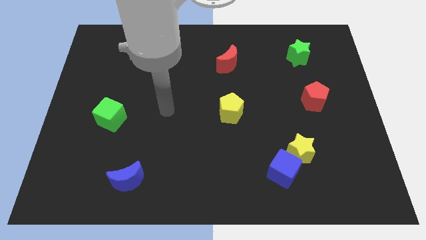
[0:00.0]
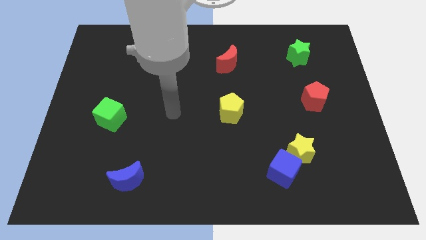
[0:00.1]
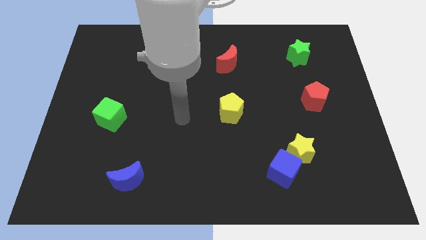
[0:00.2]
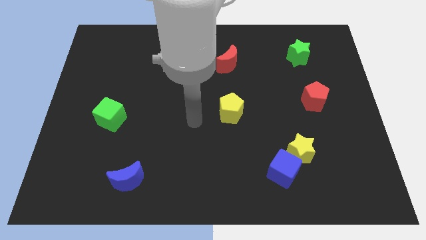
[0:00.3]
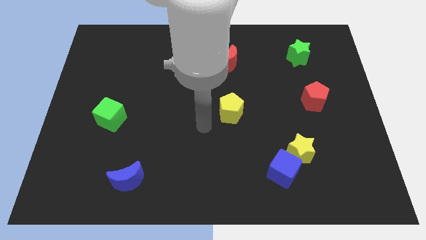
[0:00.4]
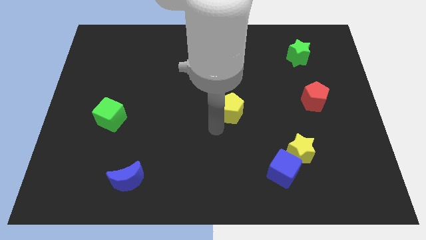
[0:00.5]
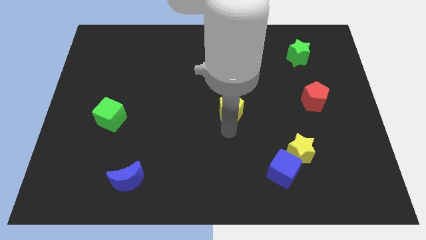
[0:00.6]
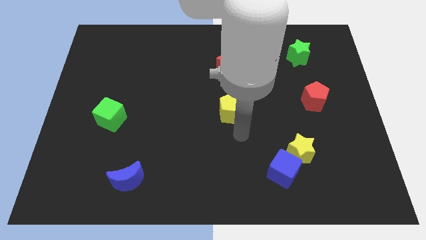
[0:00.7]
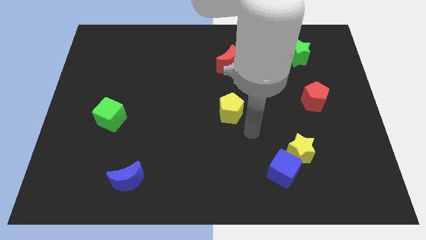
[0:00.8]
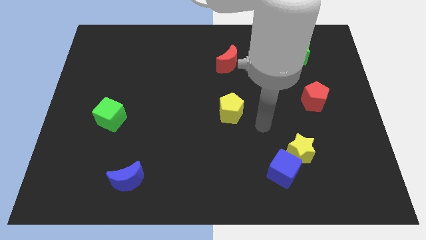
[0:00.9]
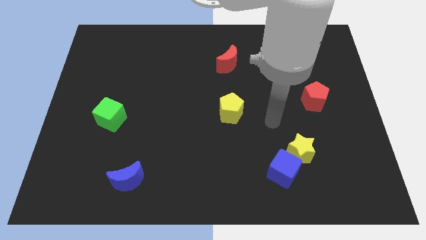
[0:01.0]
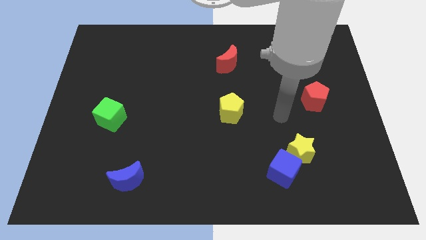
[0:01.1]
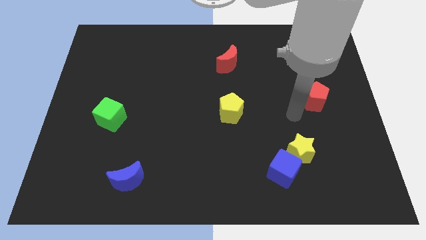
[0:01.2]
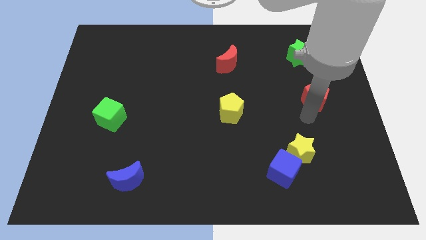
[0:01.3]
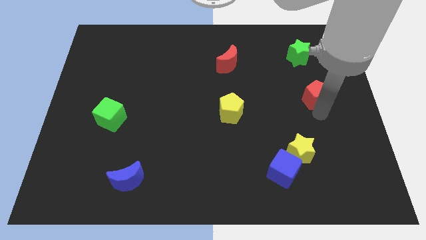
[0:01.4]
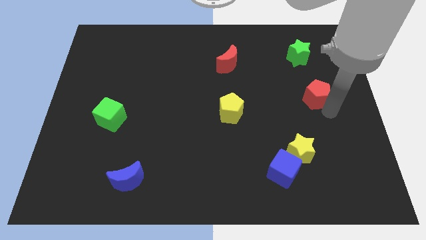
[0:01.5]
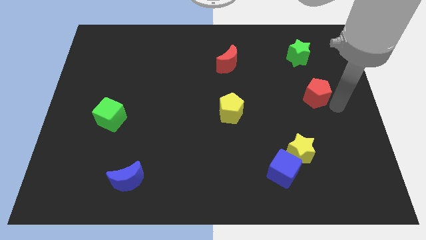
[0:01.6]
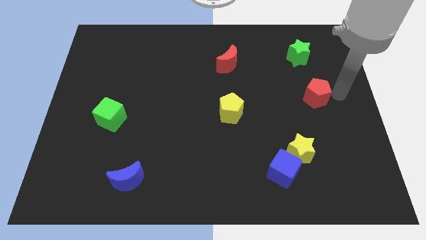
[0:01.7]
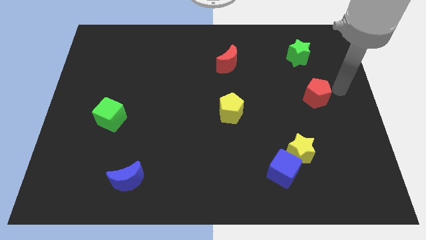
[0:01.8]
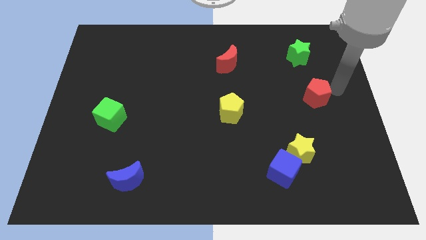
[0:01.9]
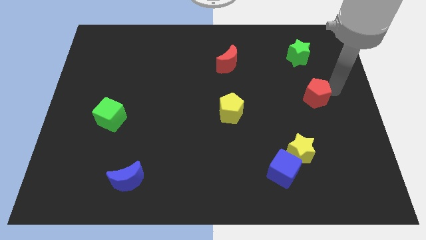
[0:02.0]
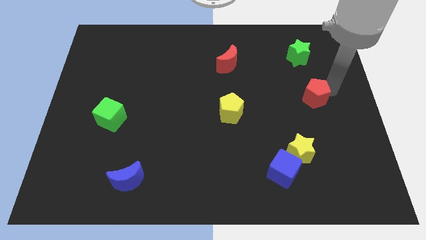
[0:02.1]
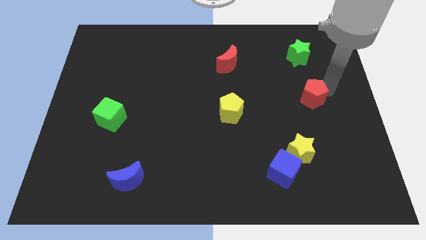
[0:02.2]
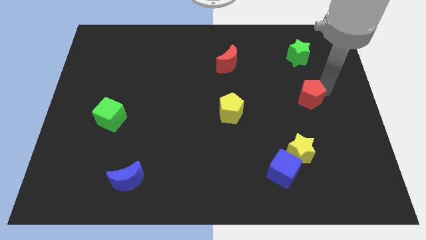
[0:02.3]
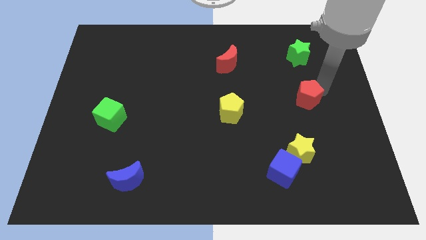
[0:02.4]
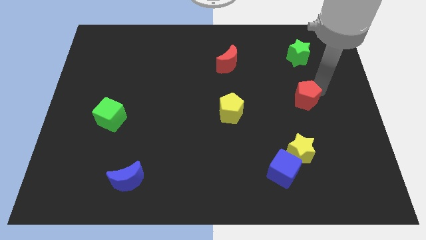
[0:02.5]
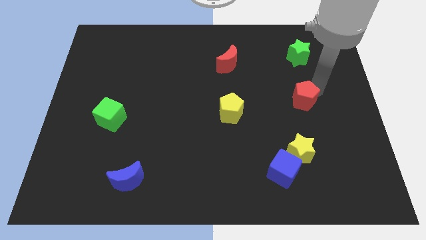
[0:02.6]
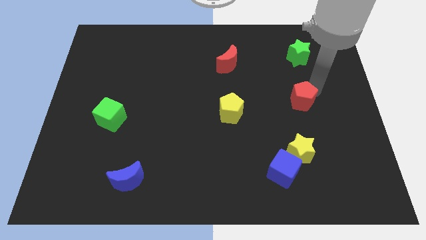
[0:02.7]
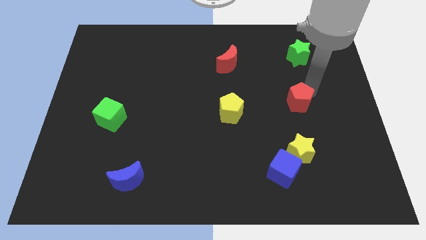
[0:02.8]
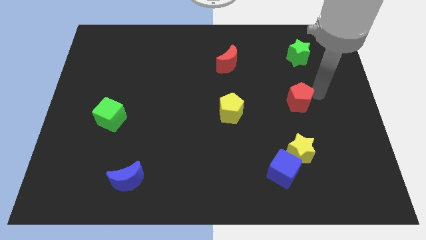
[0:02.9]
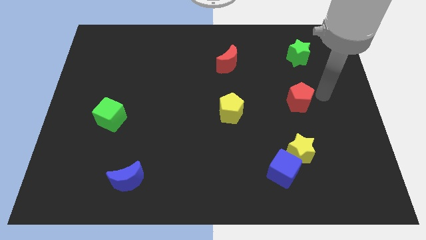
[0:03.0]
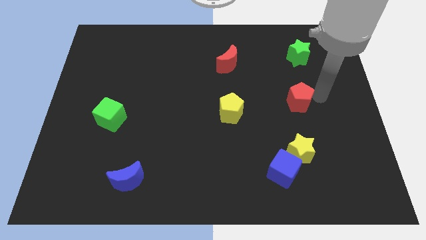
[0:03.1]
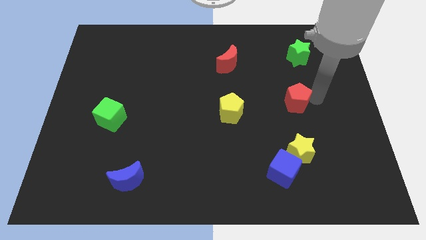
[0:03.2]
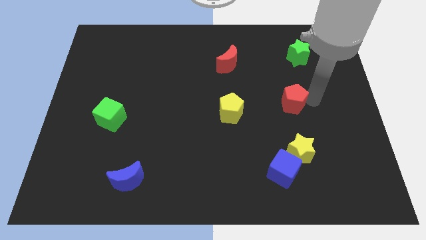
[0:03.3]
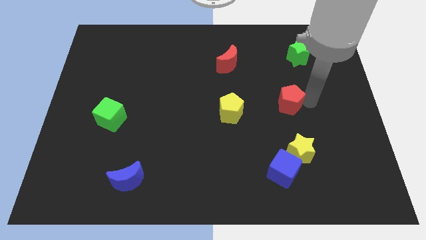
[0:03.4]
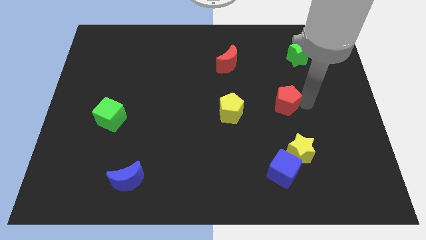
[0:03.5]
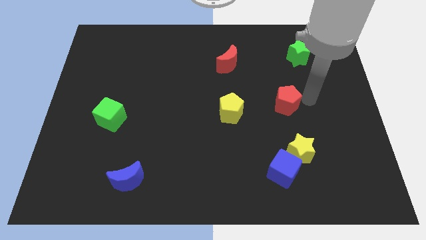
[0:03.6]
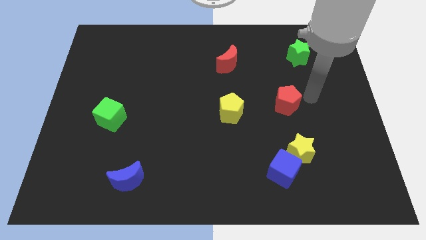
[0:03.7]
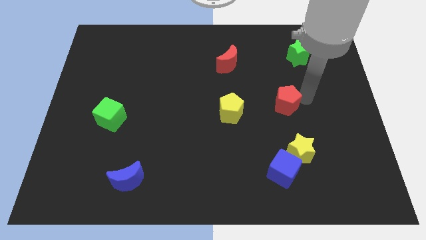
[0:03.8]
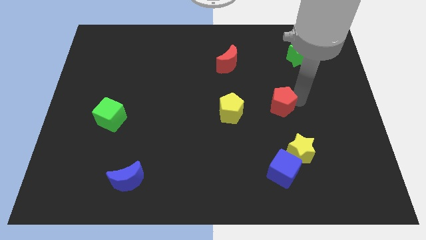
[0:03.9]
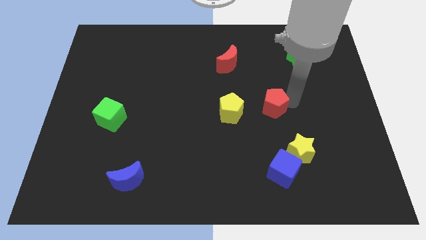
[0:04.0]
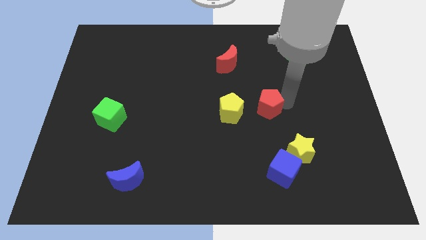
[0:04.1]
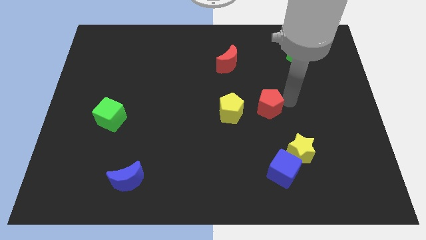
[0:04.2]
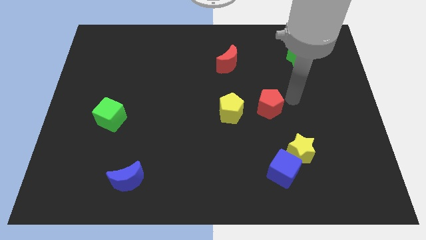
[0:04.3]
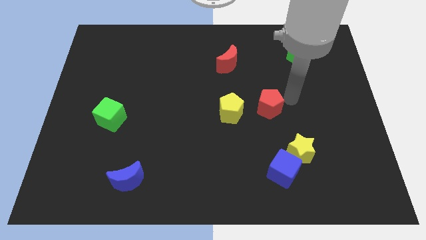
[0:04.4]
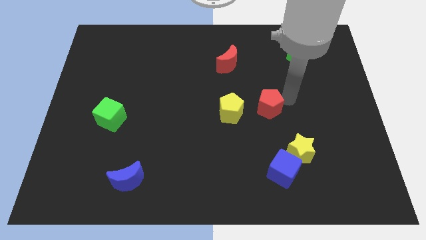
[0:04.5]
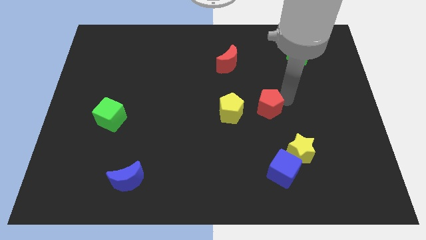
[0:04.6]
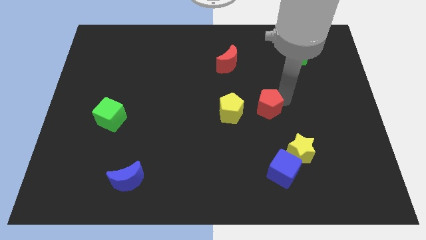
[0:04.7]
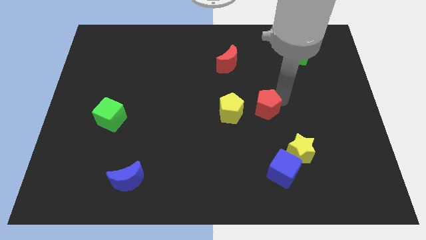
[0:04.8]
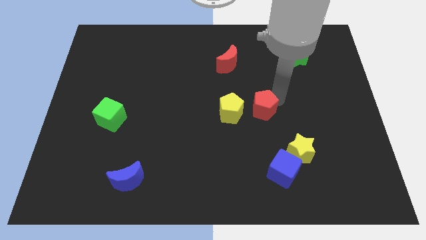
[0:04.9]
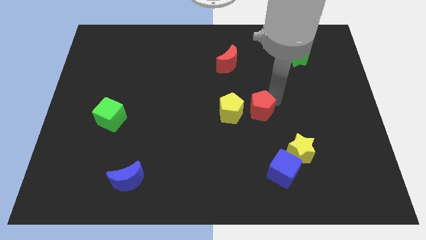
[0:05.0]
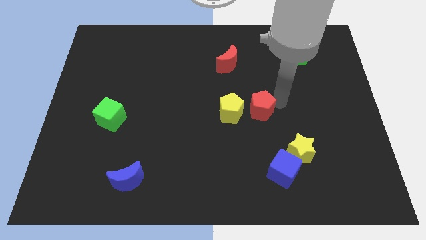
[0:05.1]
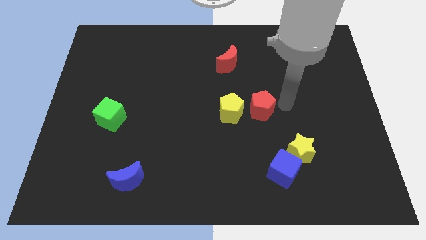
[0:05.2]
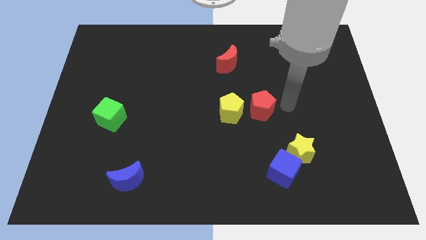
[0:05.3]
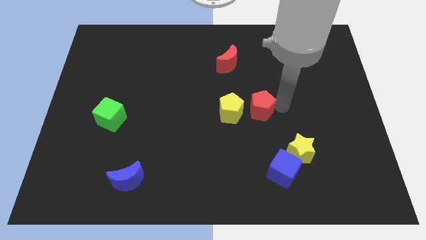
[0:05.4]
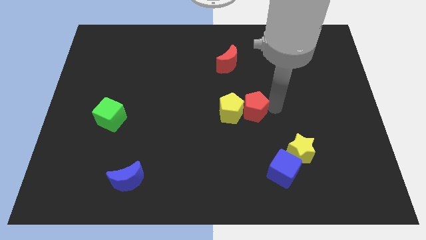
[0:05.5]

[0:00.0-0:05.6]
move the red pentagon close to the yellow pentagon

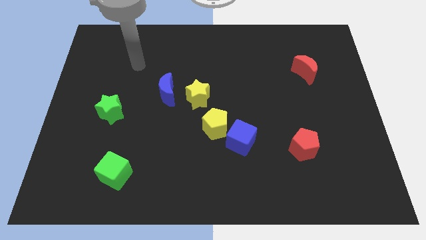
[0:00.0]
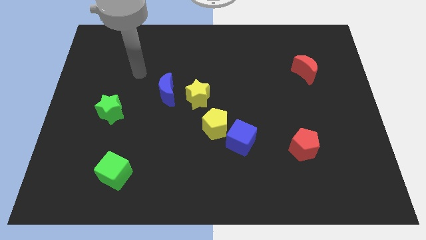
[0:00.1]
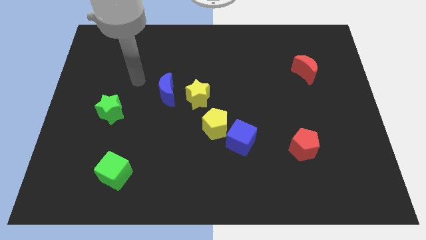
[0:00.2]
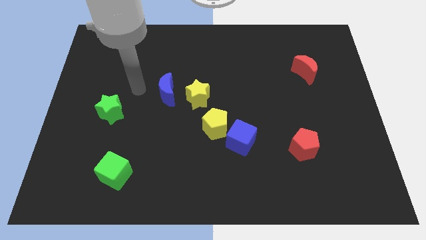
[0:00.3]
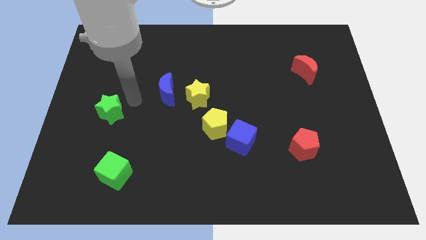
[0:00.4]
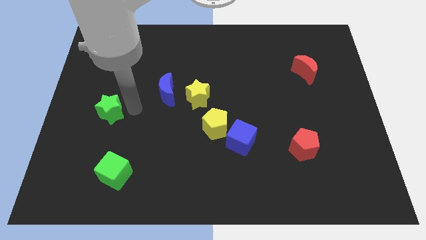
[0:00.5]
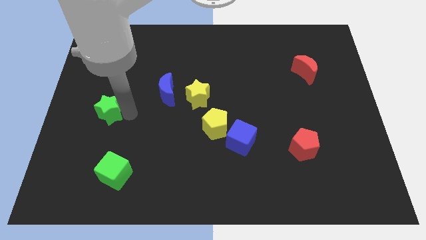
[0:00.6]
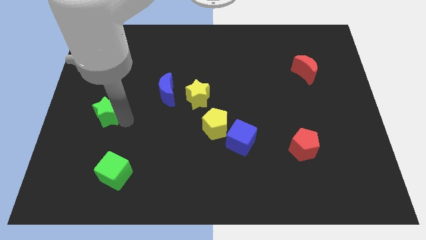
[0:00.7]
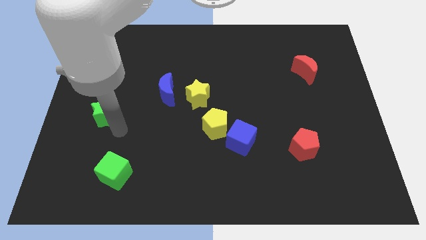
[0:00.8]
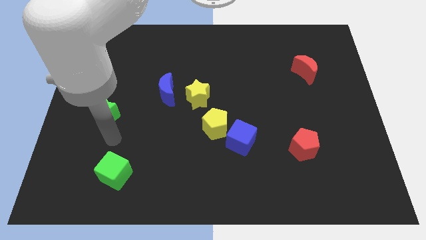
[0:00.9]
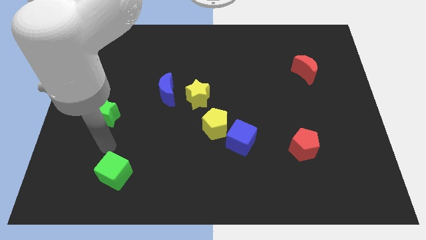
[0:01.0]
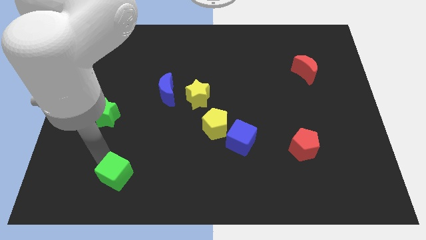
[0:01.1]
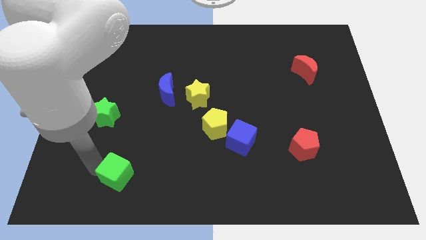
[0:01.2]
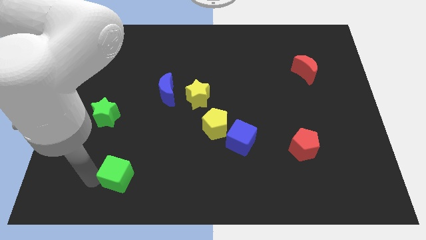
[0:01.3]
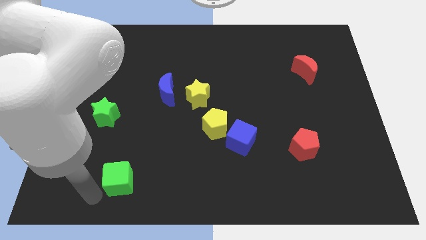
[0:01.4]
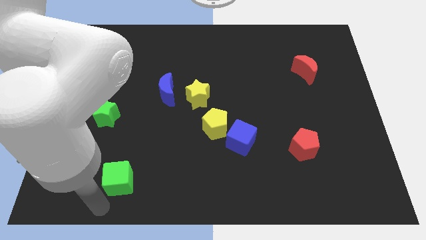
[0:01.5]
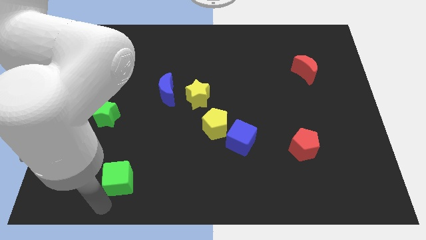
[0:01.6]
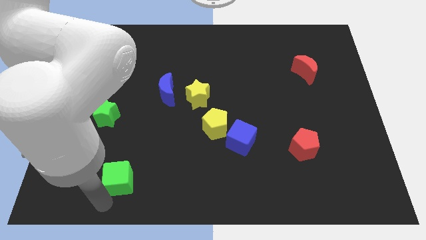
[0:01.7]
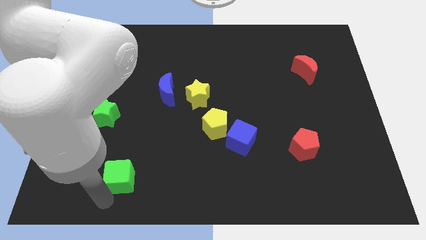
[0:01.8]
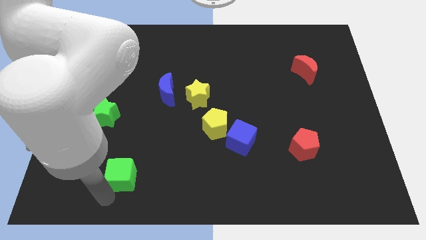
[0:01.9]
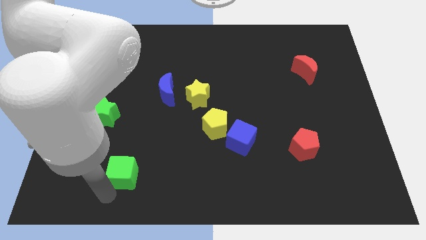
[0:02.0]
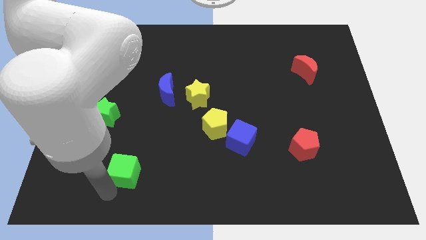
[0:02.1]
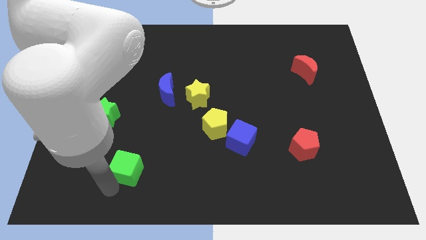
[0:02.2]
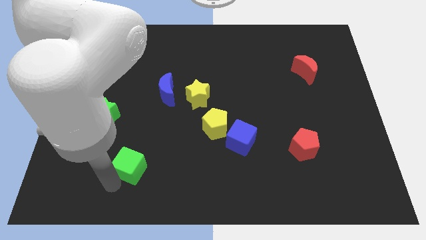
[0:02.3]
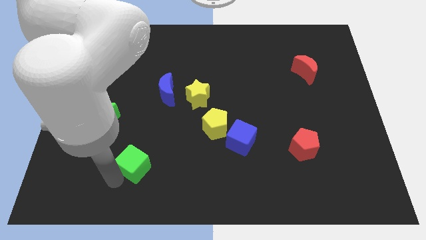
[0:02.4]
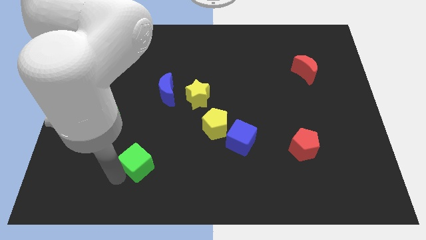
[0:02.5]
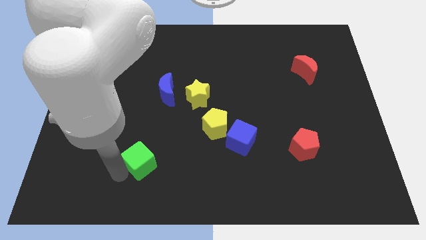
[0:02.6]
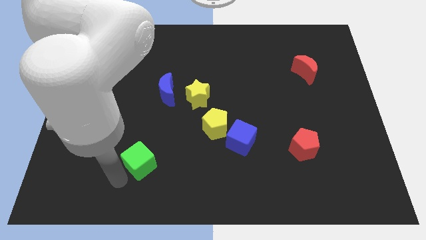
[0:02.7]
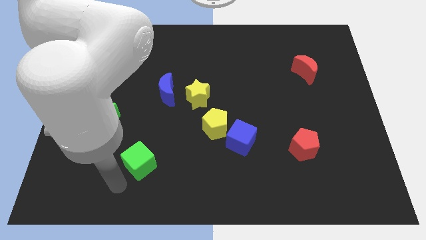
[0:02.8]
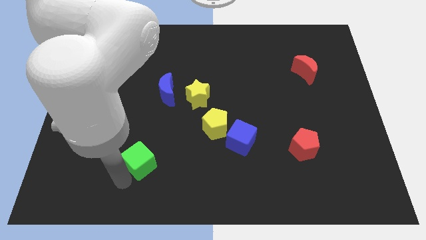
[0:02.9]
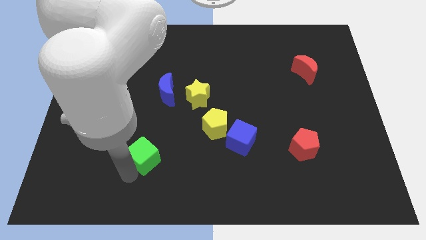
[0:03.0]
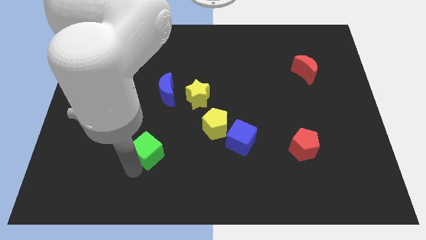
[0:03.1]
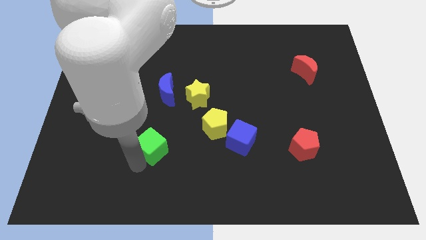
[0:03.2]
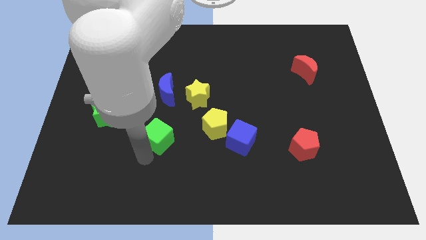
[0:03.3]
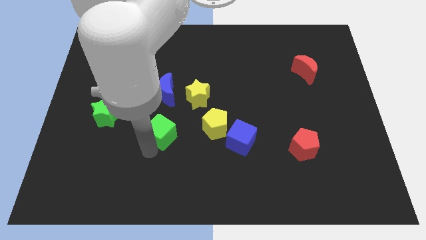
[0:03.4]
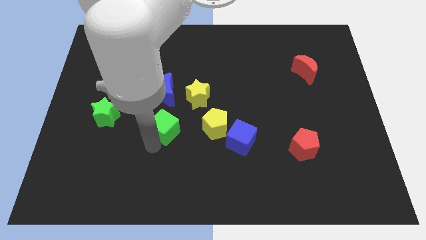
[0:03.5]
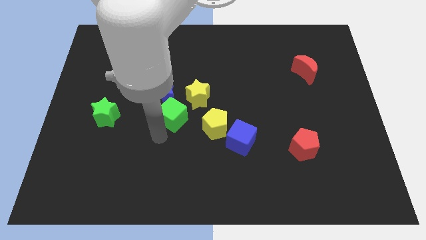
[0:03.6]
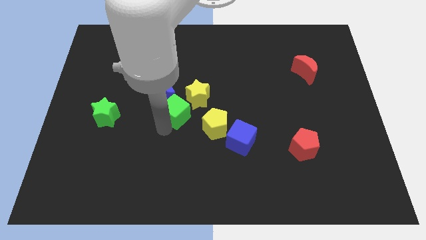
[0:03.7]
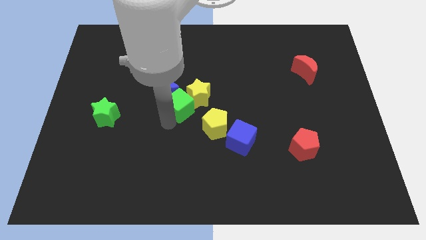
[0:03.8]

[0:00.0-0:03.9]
move the green cube to the yellow star
